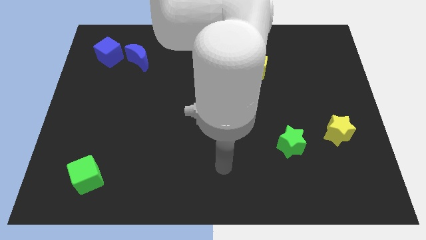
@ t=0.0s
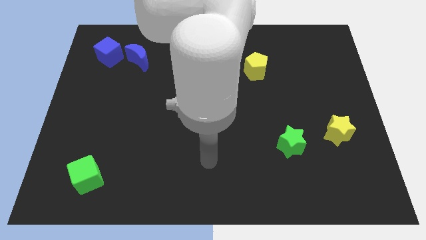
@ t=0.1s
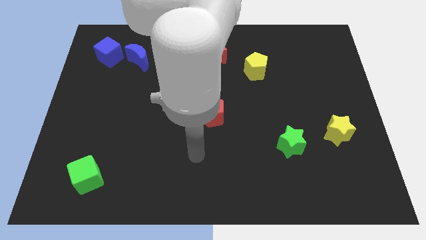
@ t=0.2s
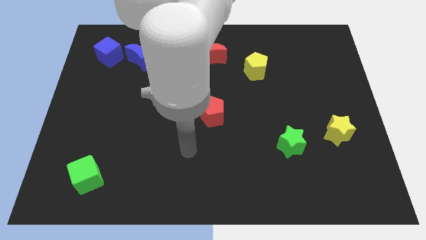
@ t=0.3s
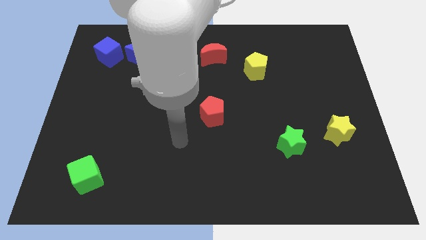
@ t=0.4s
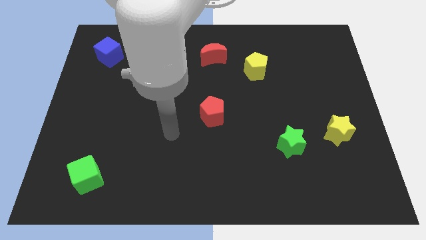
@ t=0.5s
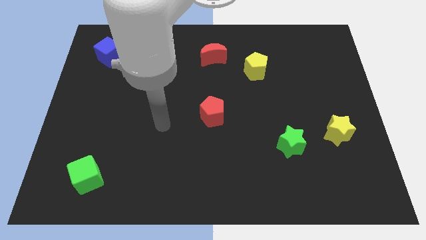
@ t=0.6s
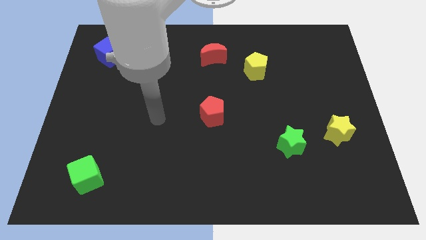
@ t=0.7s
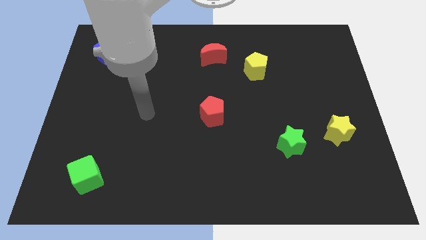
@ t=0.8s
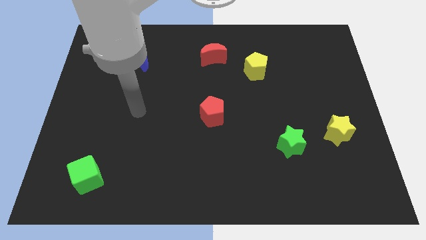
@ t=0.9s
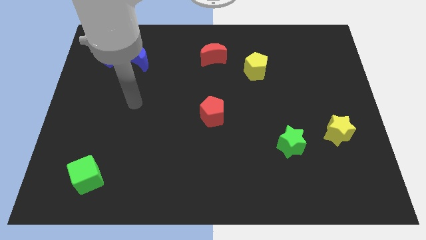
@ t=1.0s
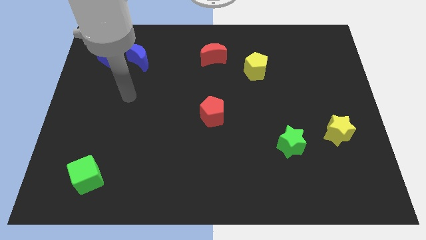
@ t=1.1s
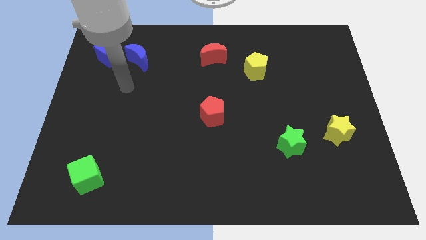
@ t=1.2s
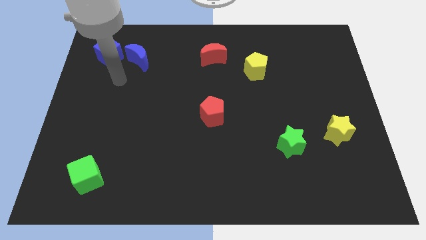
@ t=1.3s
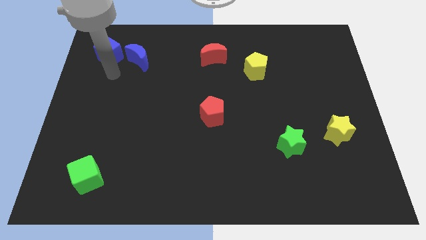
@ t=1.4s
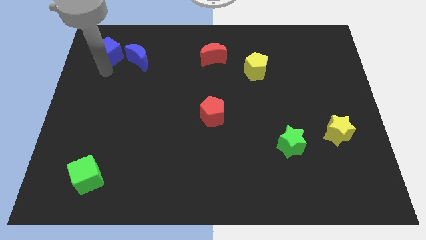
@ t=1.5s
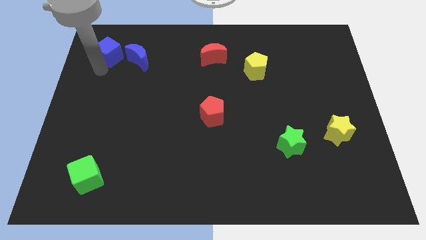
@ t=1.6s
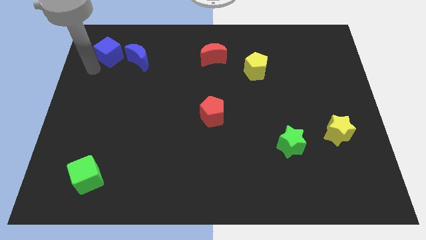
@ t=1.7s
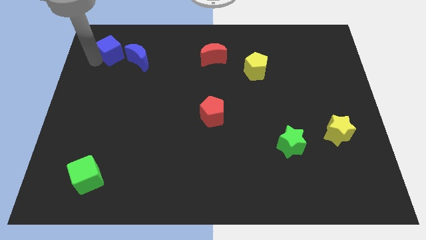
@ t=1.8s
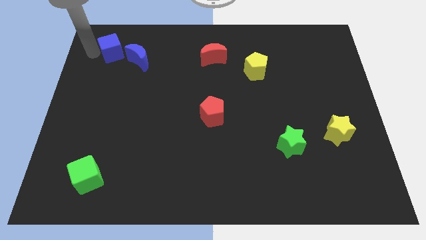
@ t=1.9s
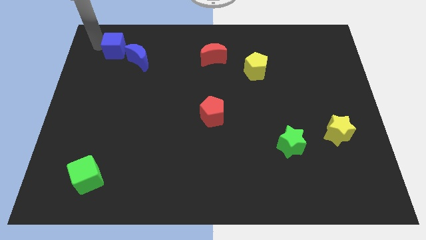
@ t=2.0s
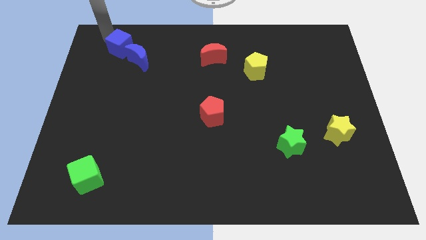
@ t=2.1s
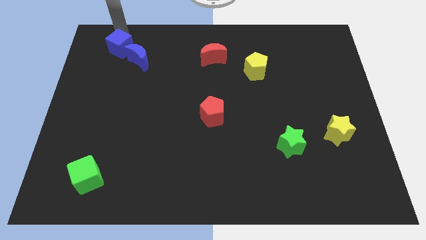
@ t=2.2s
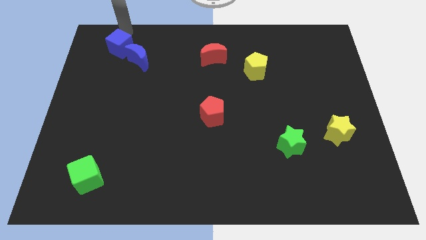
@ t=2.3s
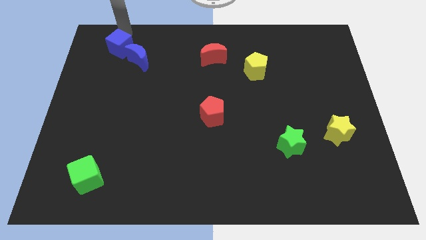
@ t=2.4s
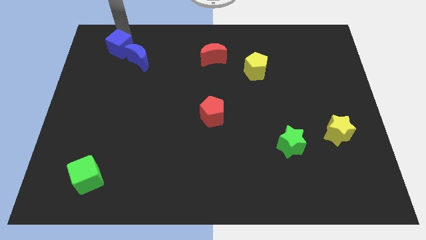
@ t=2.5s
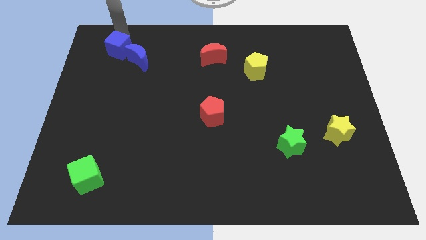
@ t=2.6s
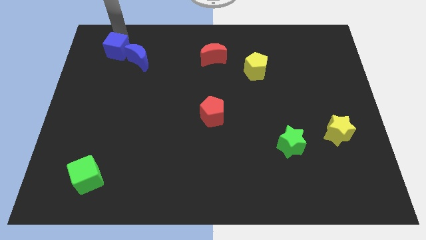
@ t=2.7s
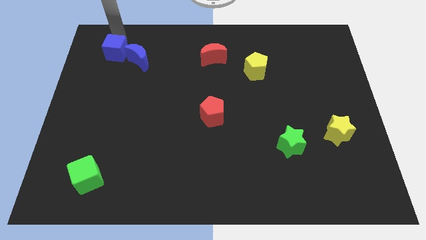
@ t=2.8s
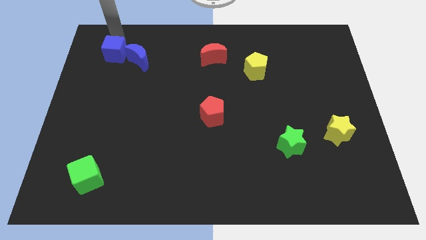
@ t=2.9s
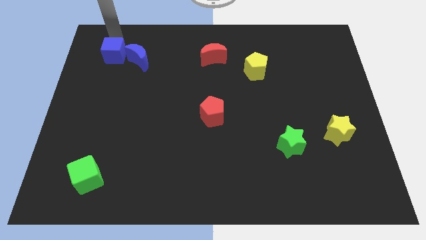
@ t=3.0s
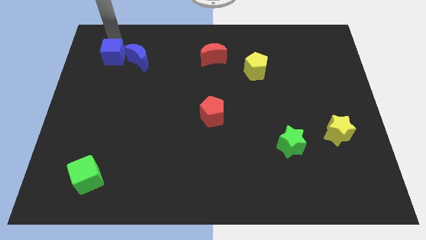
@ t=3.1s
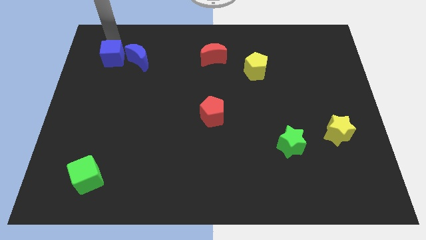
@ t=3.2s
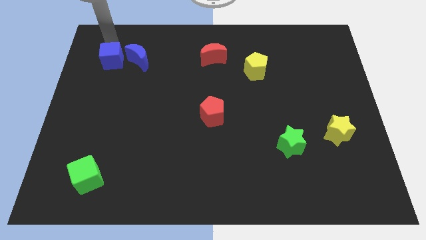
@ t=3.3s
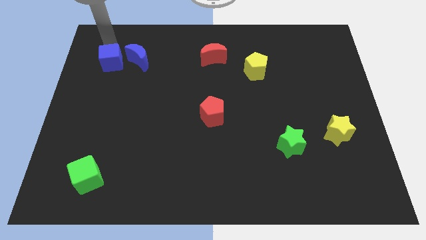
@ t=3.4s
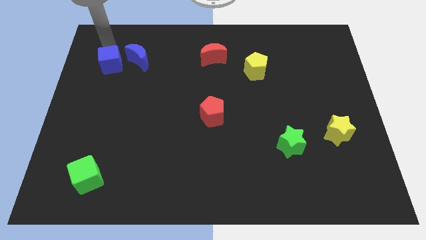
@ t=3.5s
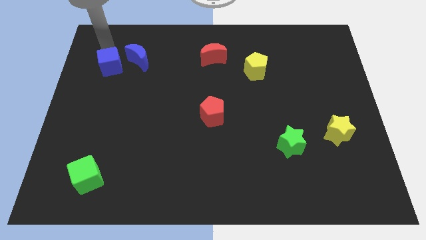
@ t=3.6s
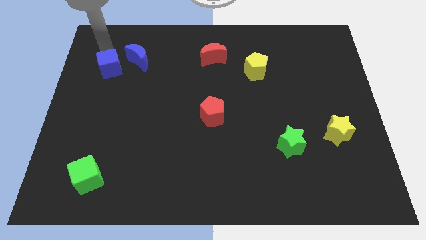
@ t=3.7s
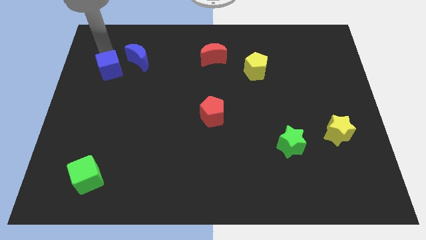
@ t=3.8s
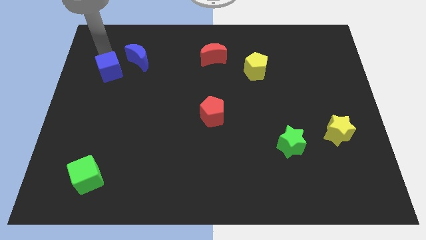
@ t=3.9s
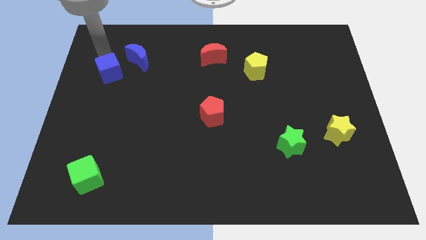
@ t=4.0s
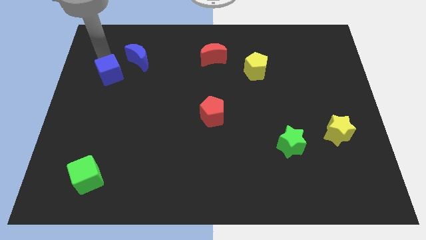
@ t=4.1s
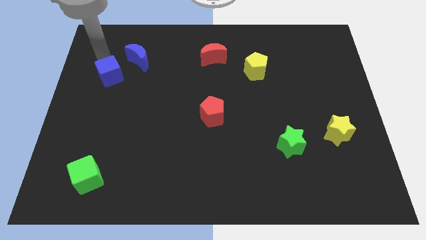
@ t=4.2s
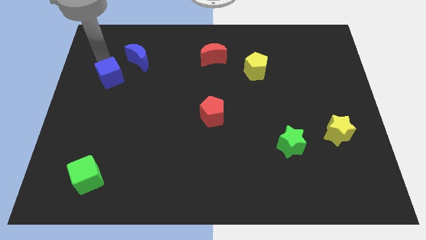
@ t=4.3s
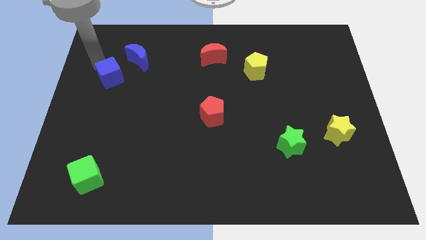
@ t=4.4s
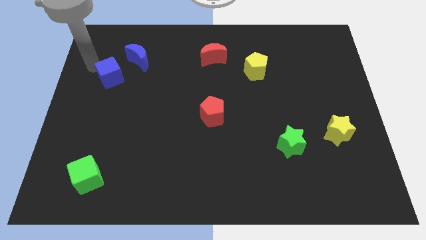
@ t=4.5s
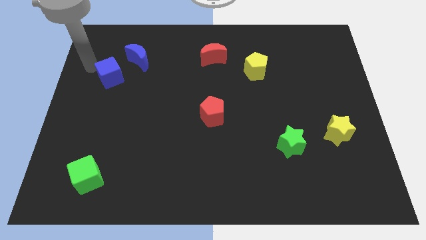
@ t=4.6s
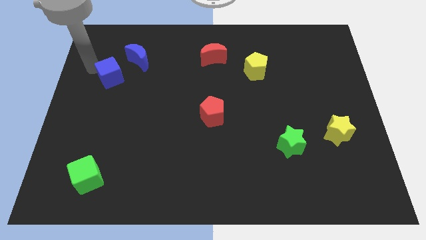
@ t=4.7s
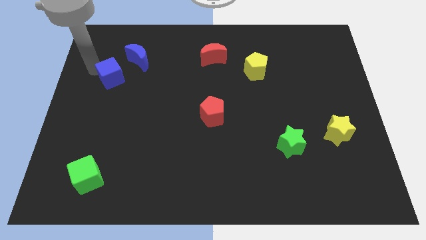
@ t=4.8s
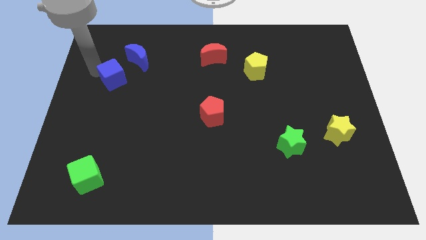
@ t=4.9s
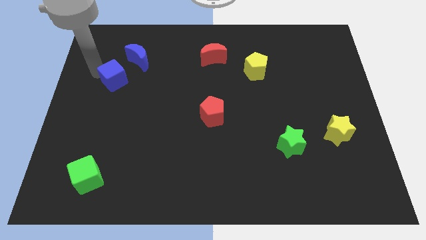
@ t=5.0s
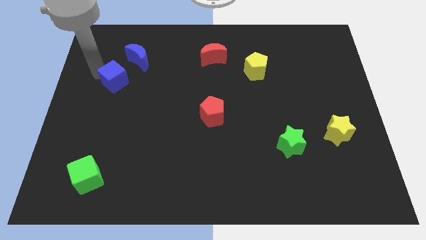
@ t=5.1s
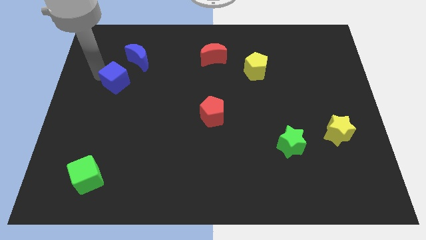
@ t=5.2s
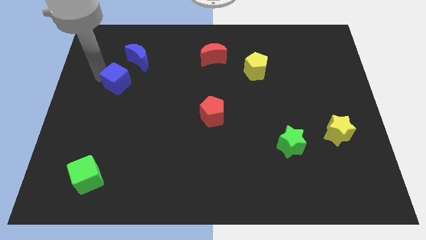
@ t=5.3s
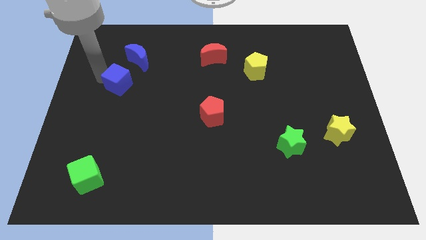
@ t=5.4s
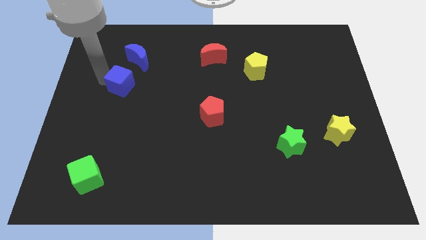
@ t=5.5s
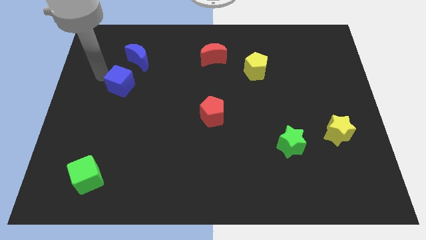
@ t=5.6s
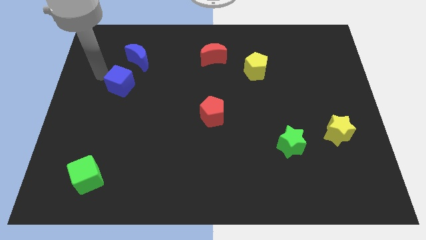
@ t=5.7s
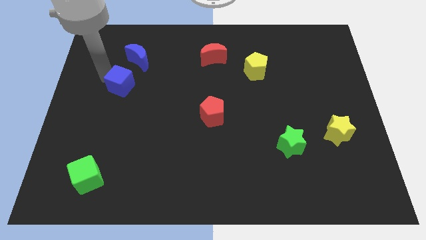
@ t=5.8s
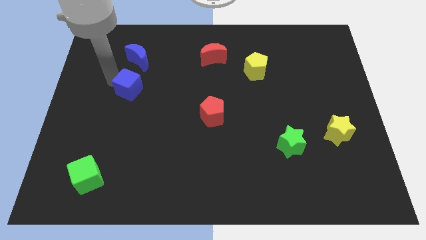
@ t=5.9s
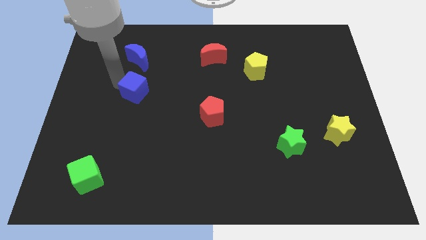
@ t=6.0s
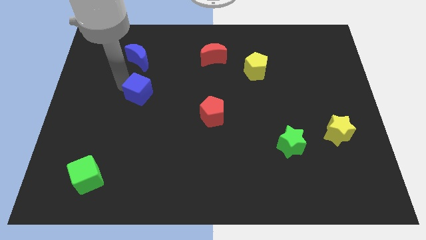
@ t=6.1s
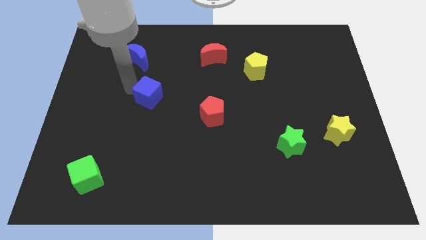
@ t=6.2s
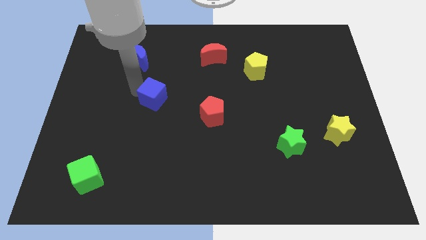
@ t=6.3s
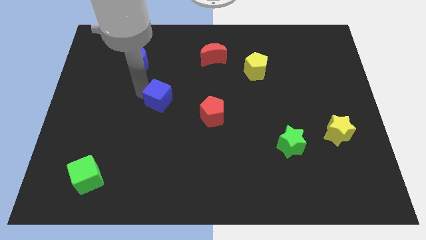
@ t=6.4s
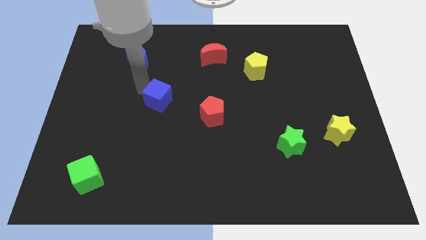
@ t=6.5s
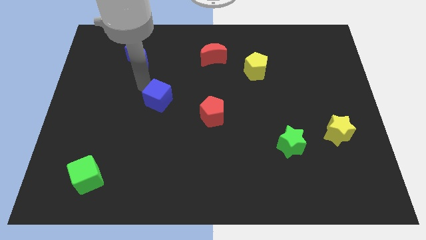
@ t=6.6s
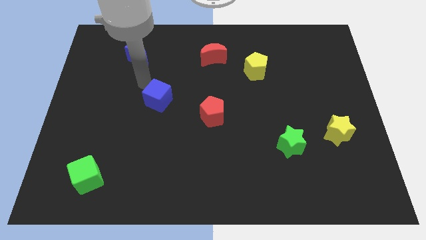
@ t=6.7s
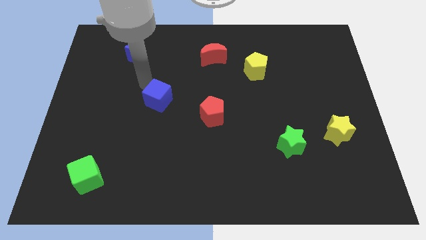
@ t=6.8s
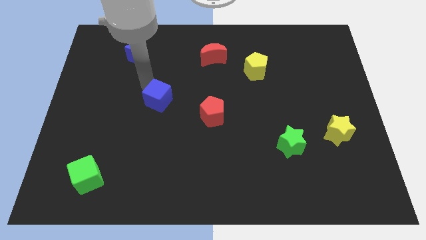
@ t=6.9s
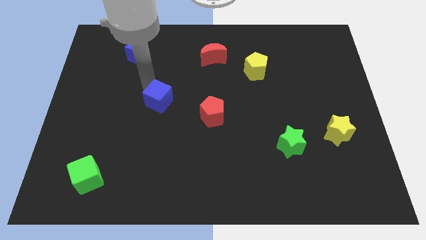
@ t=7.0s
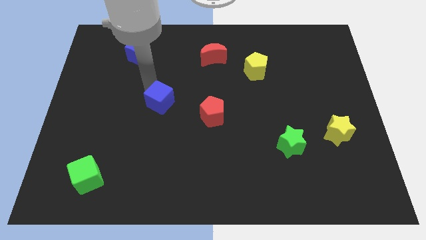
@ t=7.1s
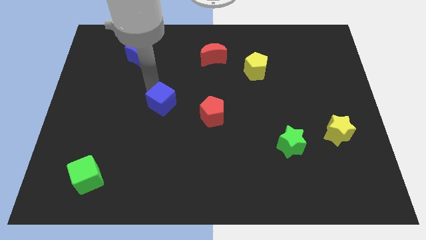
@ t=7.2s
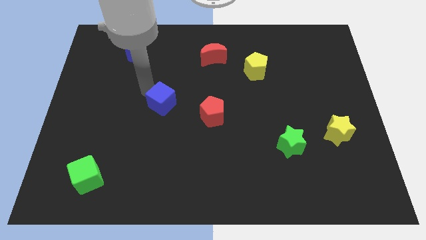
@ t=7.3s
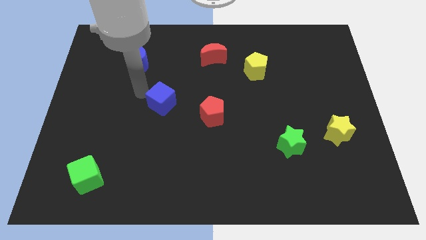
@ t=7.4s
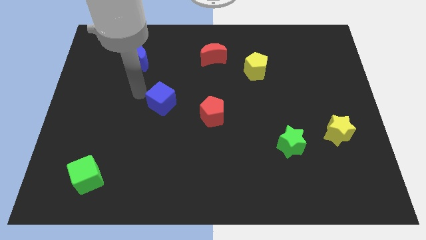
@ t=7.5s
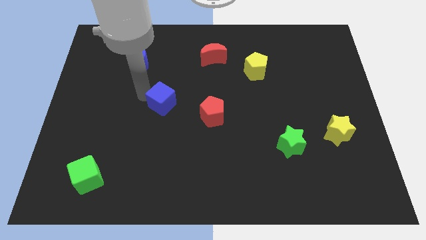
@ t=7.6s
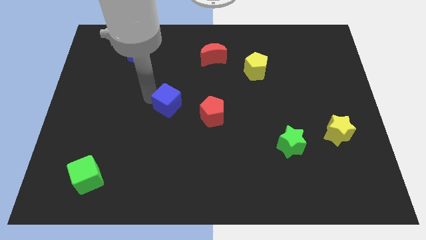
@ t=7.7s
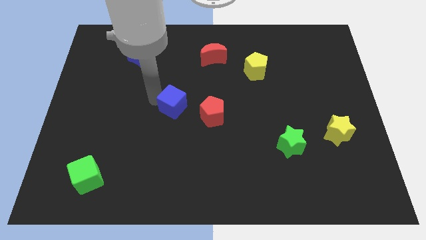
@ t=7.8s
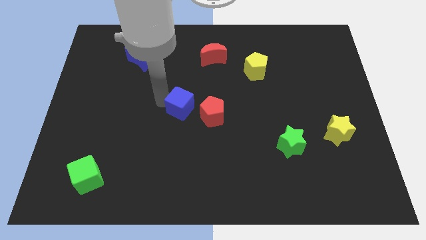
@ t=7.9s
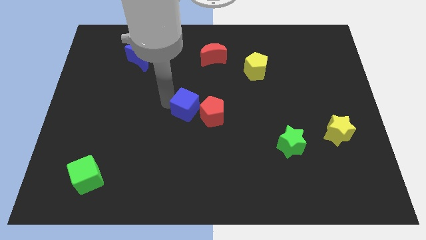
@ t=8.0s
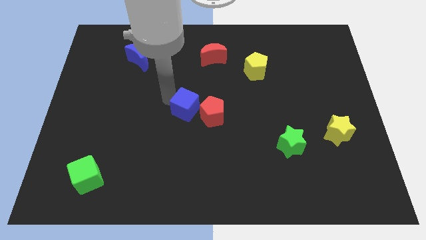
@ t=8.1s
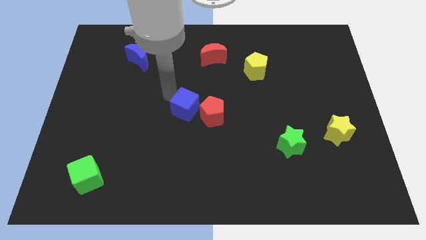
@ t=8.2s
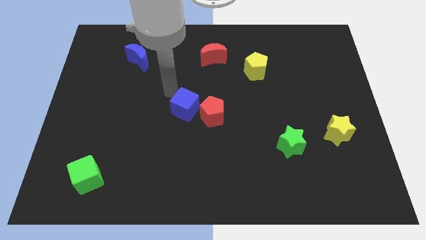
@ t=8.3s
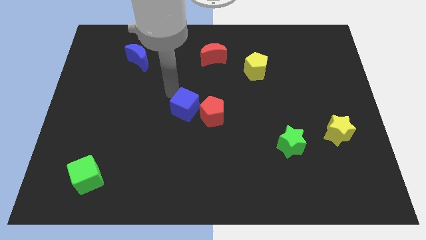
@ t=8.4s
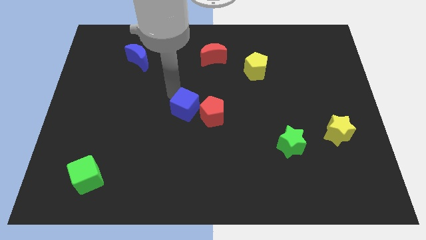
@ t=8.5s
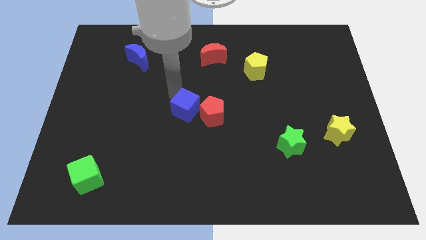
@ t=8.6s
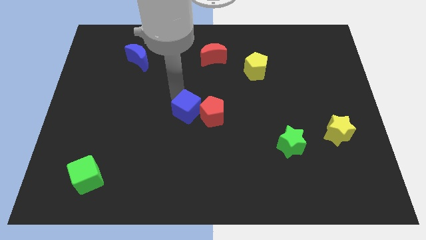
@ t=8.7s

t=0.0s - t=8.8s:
put the blue cube to the red pentagon
